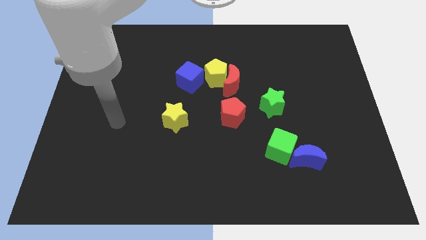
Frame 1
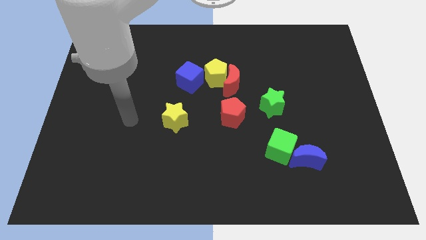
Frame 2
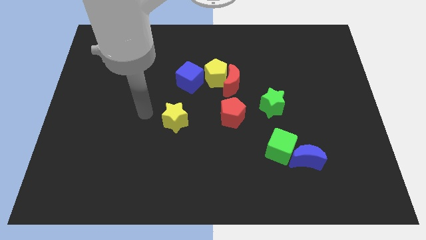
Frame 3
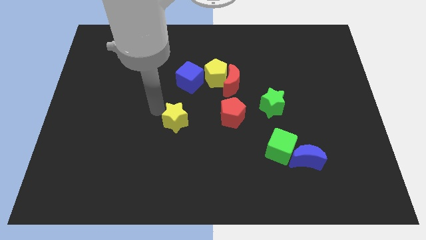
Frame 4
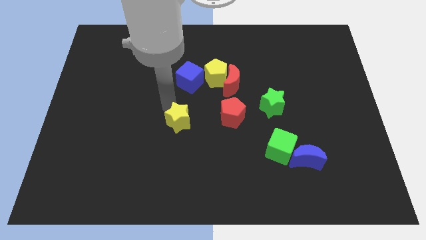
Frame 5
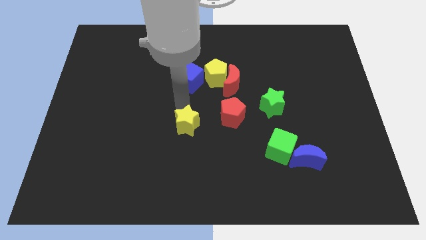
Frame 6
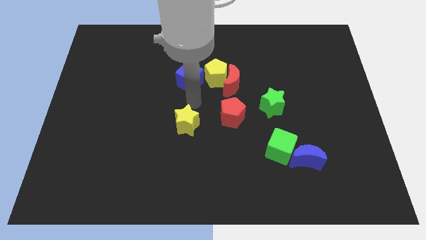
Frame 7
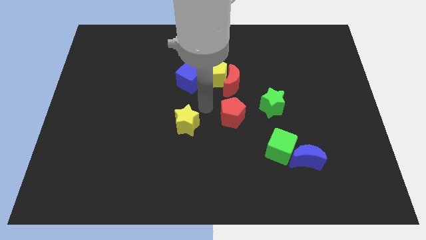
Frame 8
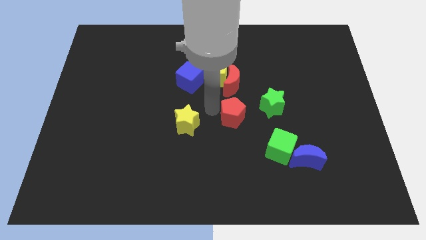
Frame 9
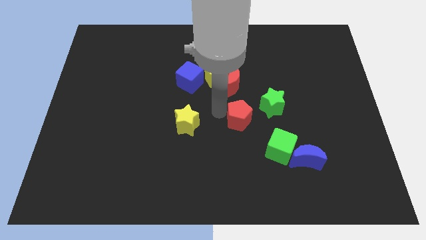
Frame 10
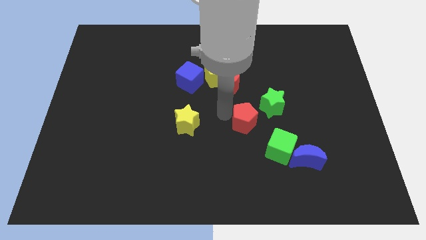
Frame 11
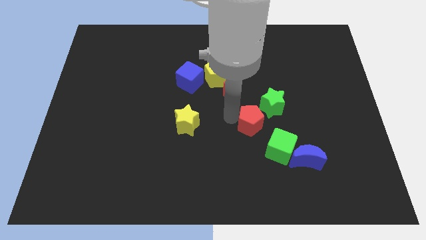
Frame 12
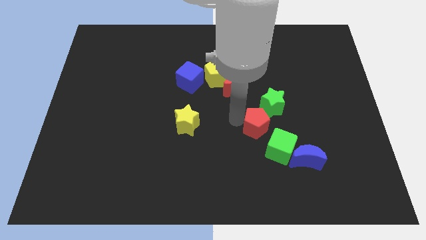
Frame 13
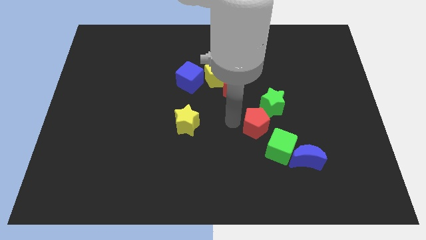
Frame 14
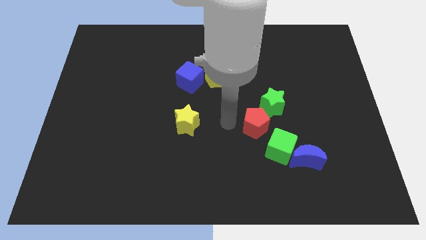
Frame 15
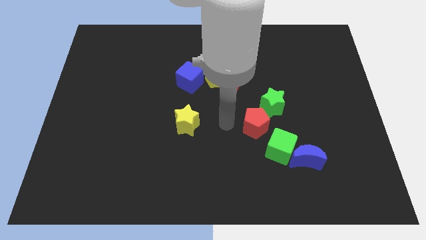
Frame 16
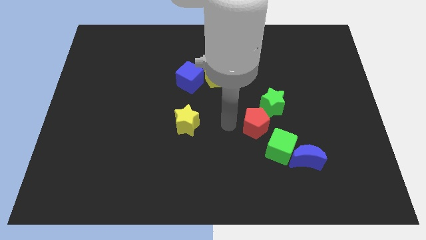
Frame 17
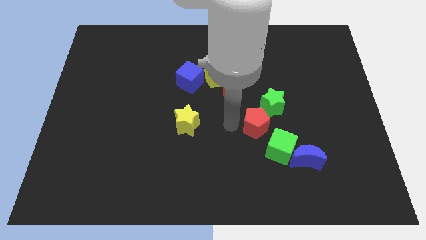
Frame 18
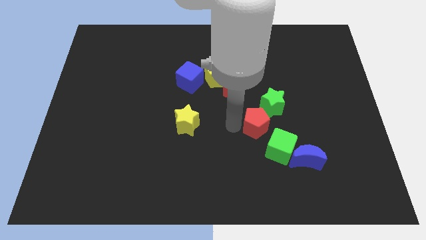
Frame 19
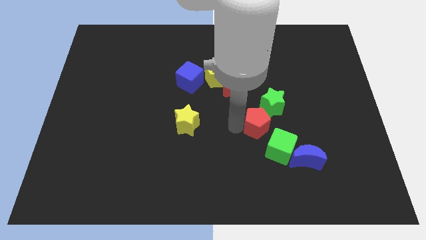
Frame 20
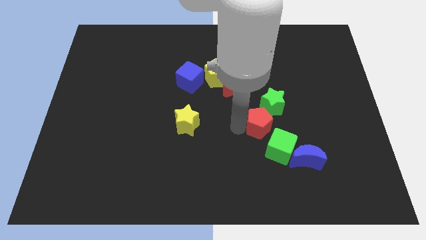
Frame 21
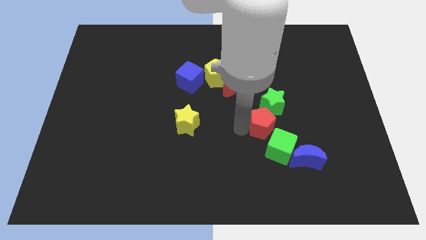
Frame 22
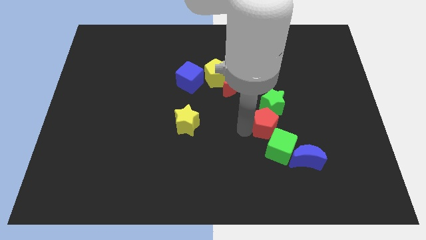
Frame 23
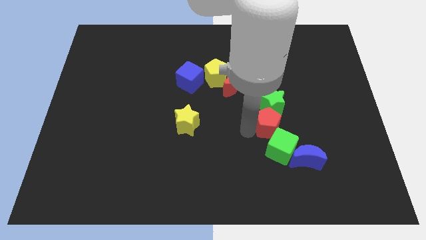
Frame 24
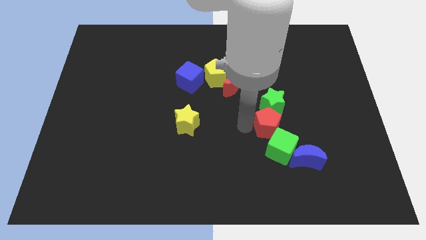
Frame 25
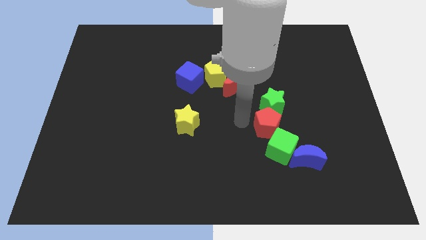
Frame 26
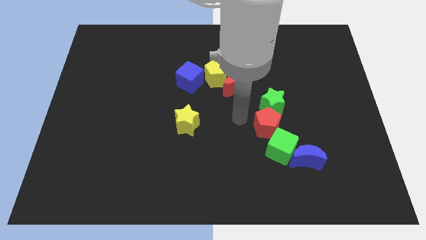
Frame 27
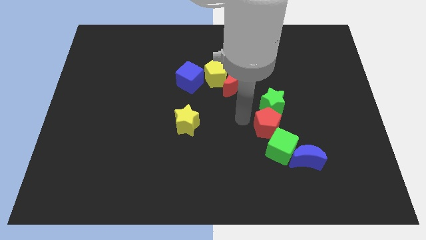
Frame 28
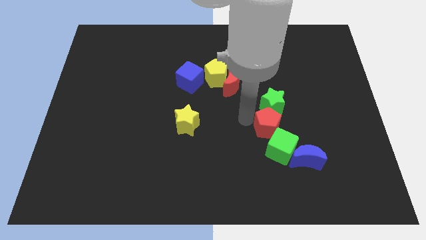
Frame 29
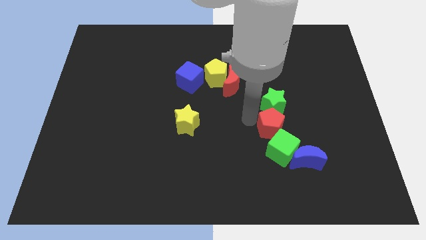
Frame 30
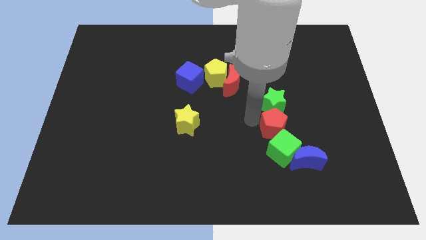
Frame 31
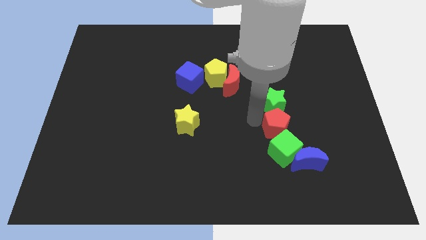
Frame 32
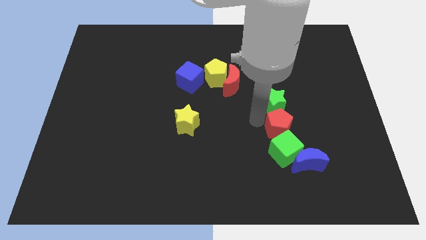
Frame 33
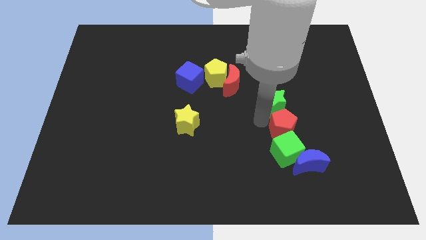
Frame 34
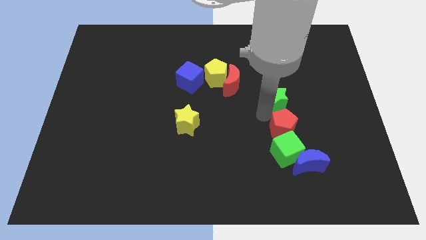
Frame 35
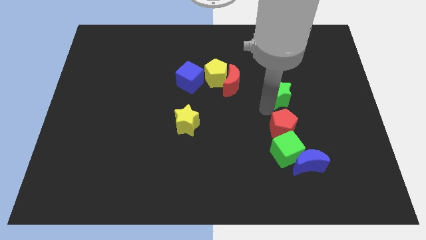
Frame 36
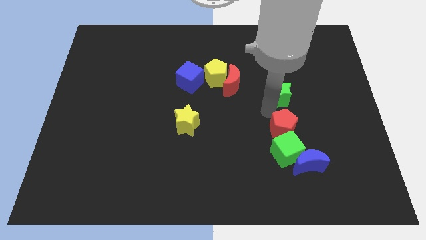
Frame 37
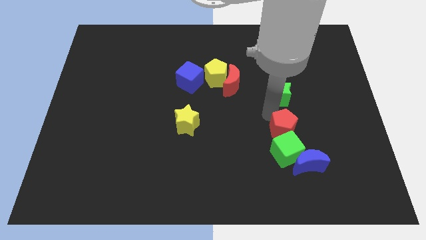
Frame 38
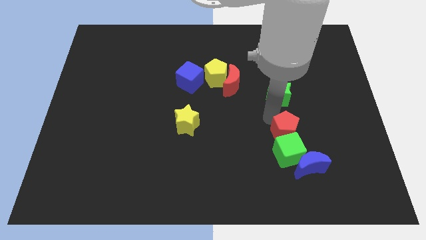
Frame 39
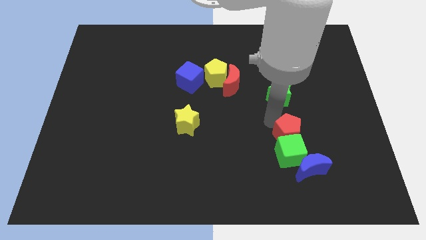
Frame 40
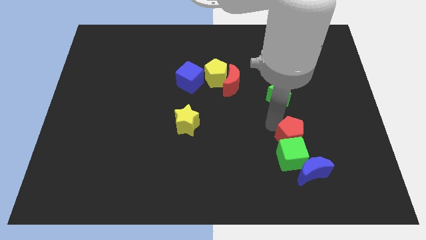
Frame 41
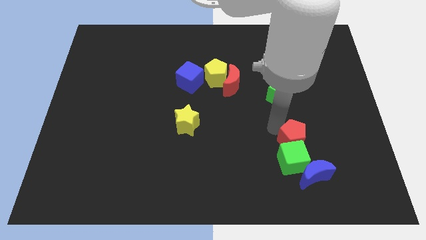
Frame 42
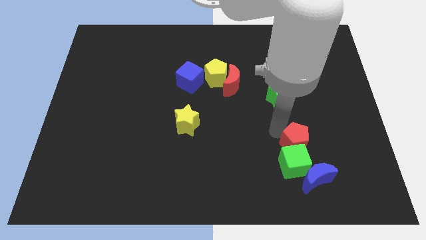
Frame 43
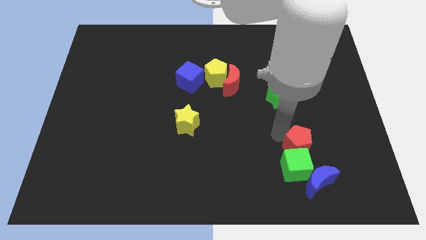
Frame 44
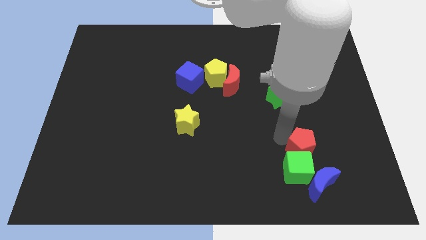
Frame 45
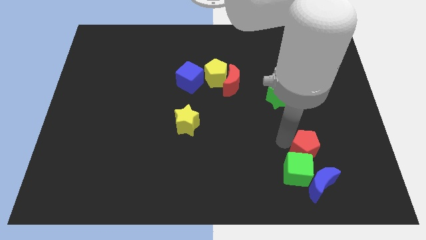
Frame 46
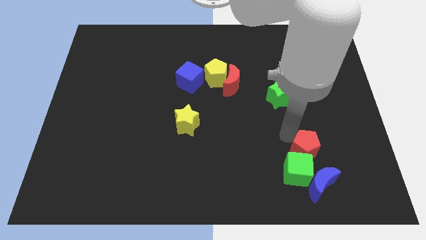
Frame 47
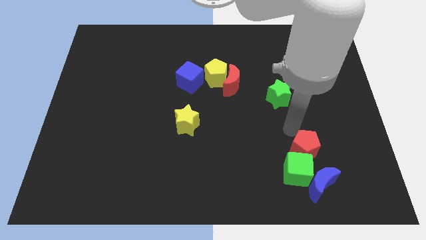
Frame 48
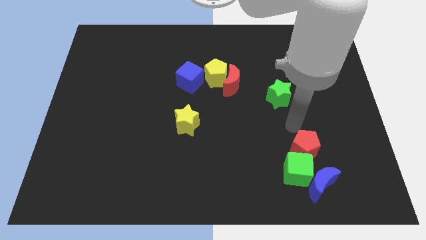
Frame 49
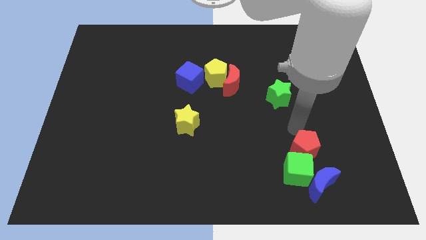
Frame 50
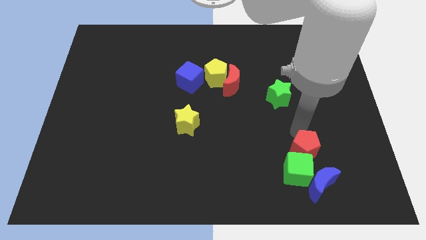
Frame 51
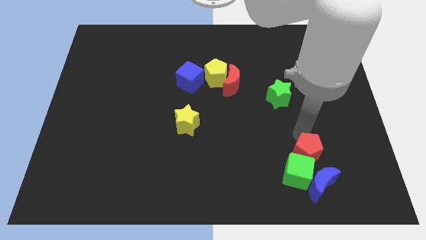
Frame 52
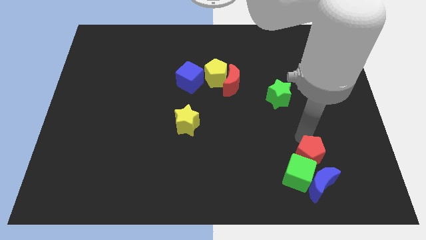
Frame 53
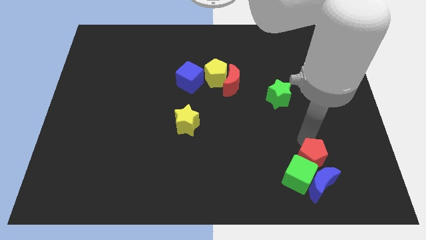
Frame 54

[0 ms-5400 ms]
move the red pentagon close to the blue moon

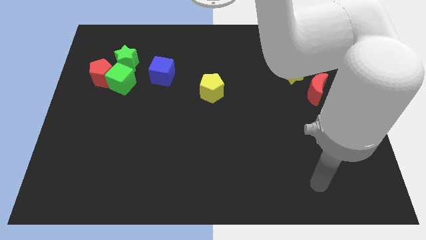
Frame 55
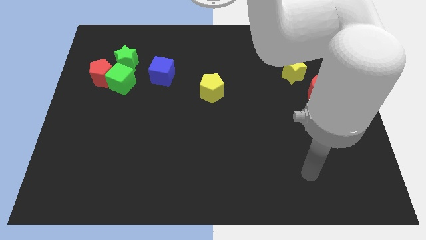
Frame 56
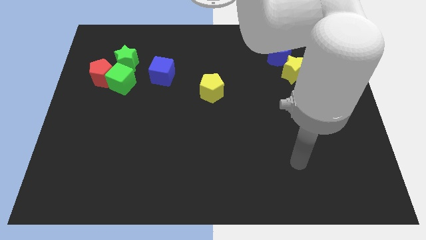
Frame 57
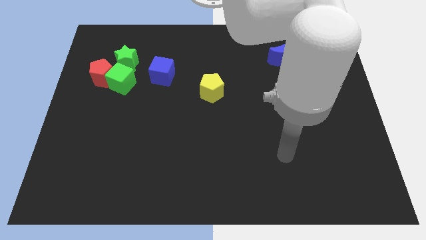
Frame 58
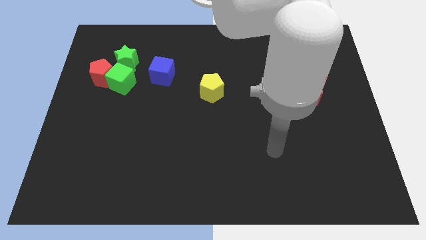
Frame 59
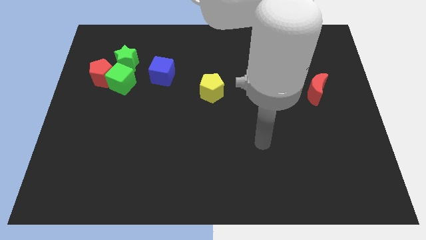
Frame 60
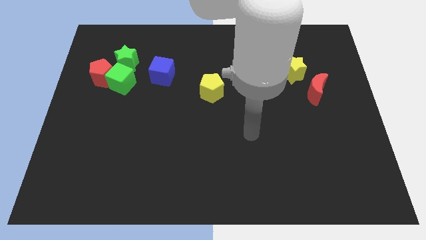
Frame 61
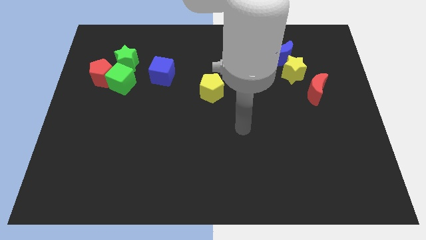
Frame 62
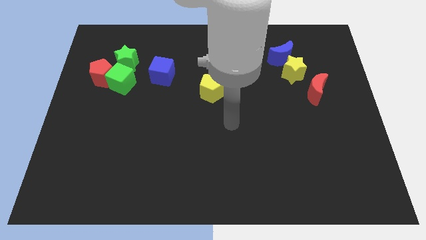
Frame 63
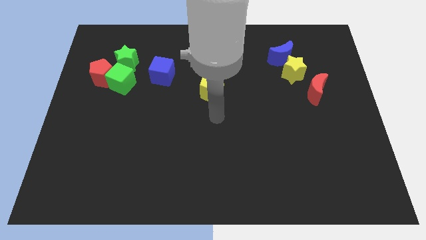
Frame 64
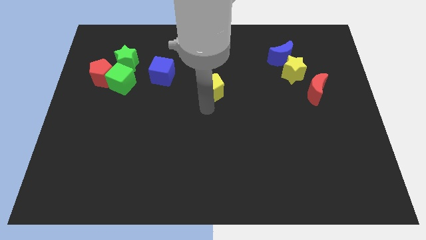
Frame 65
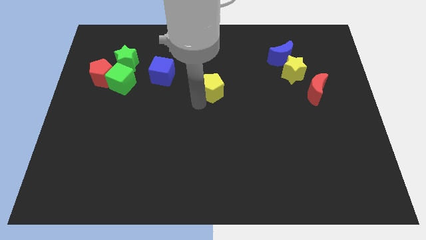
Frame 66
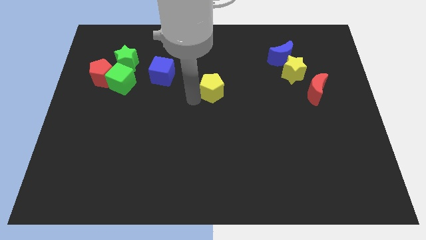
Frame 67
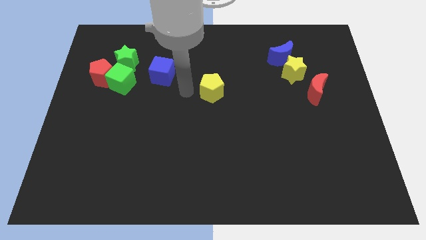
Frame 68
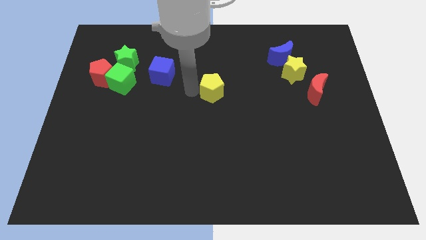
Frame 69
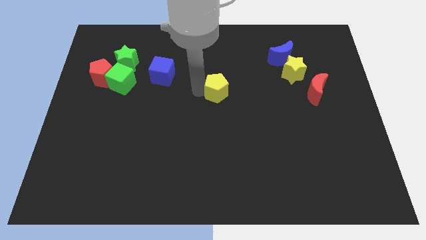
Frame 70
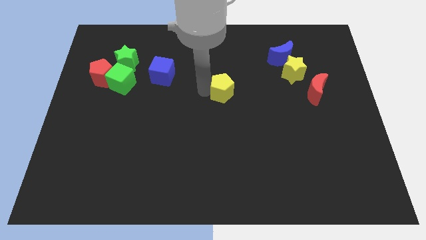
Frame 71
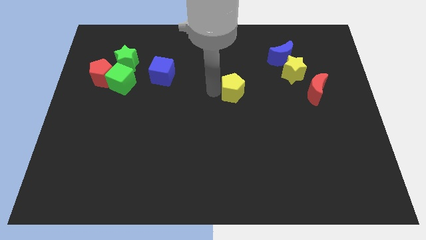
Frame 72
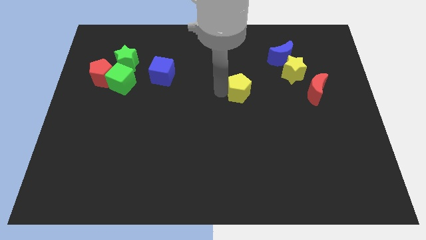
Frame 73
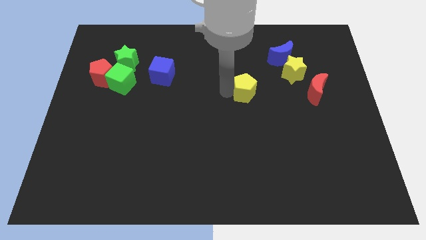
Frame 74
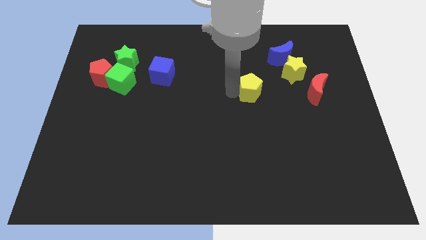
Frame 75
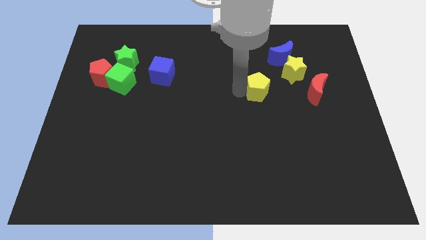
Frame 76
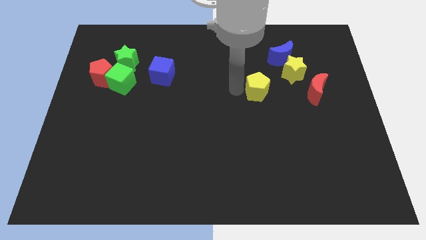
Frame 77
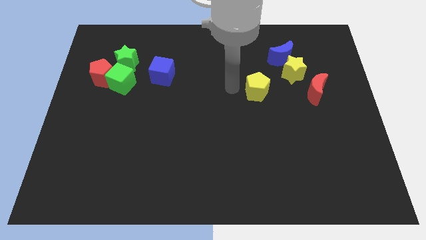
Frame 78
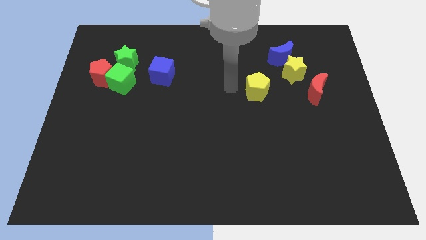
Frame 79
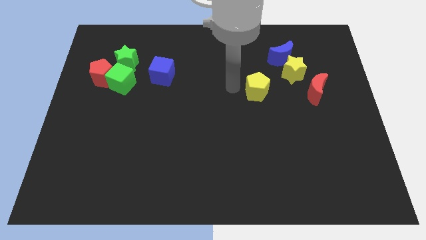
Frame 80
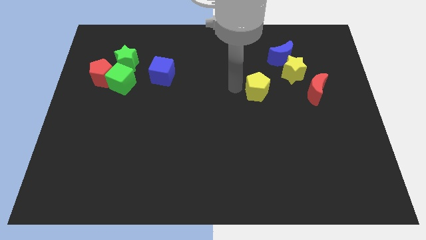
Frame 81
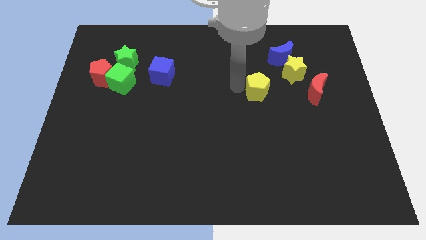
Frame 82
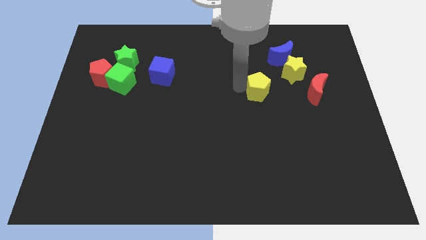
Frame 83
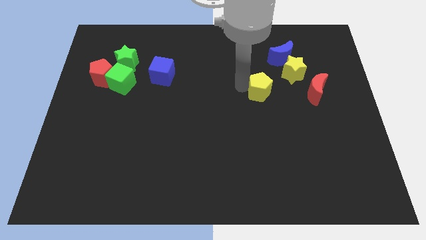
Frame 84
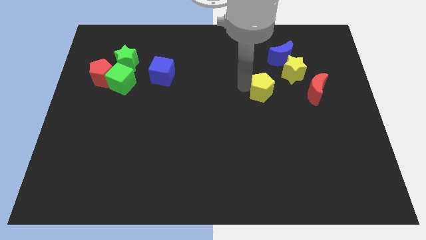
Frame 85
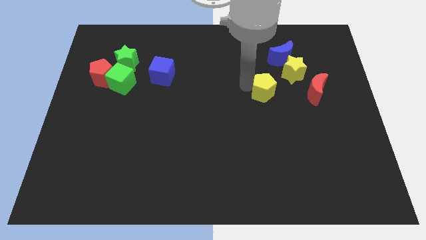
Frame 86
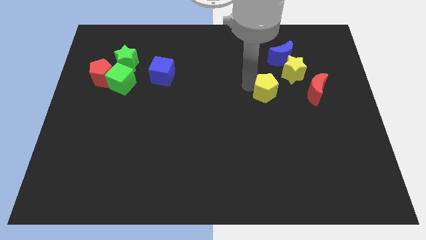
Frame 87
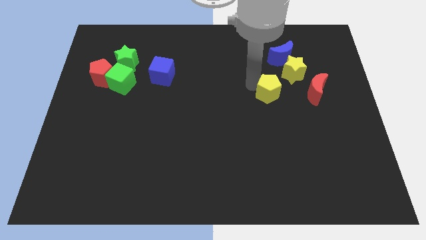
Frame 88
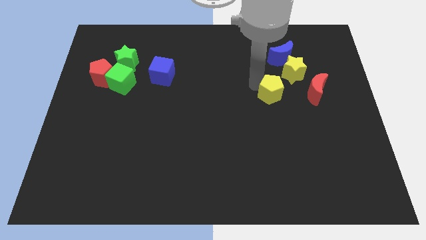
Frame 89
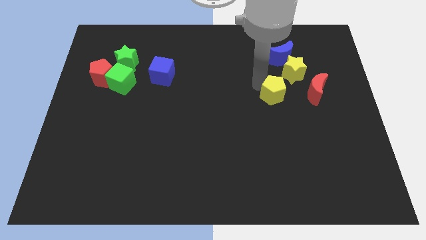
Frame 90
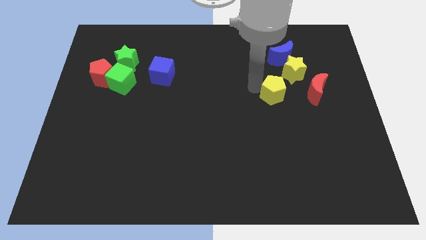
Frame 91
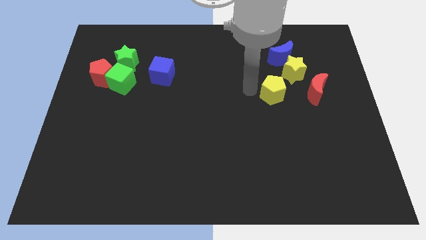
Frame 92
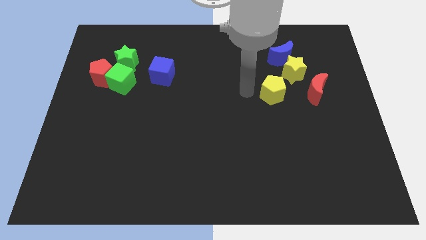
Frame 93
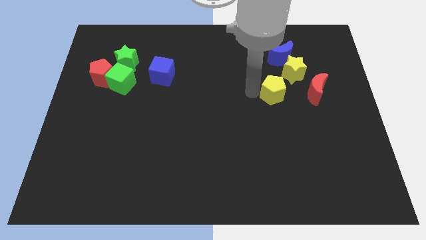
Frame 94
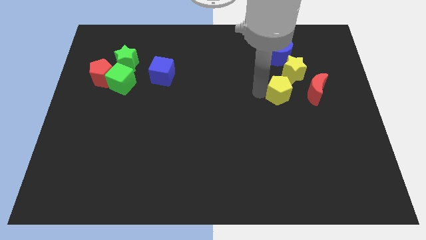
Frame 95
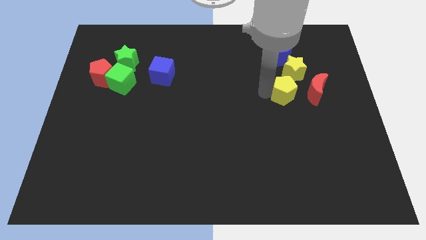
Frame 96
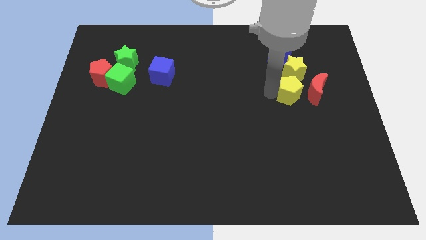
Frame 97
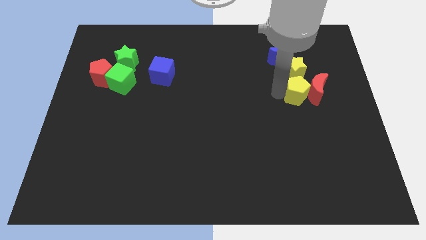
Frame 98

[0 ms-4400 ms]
push the yellow pentagon next to the red moon
